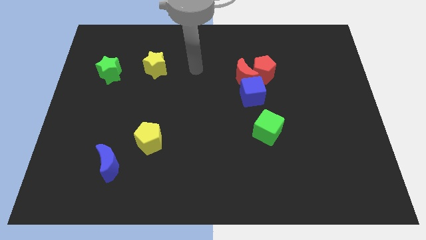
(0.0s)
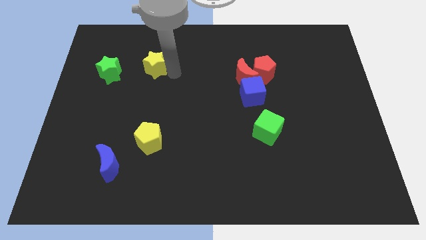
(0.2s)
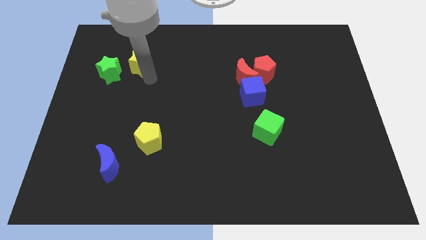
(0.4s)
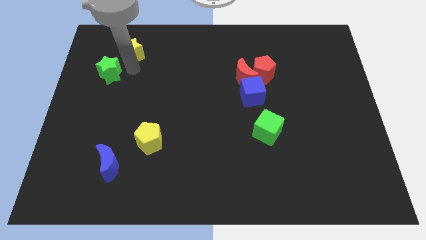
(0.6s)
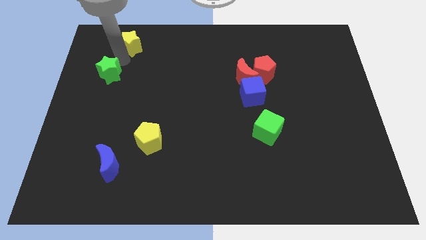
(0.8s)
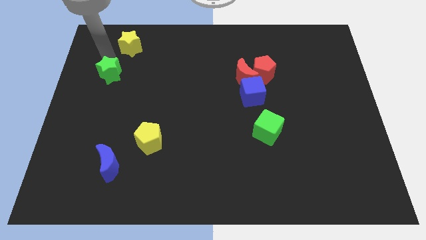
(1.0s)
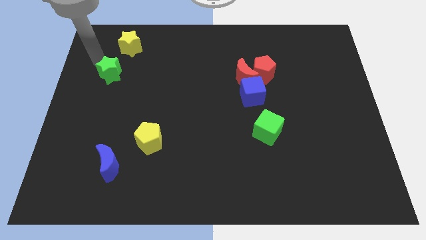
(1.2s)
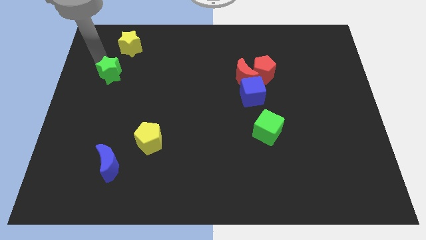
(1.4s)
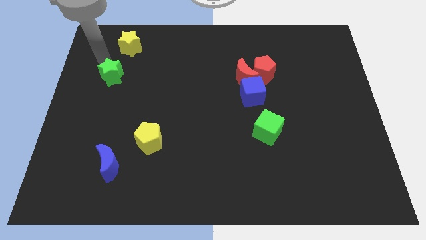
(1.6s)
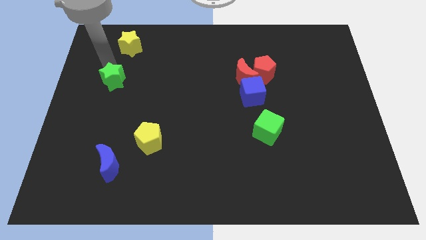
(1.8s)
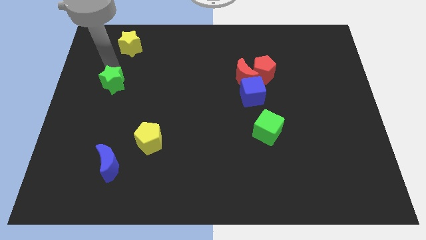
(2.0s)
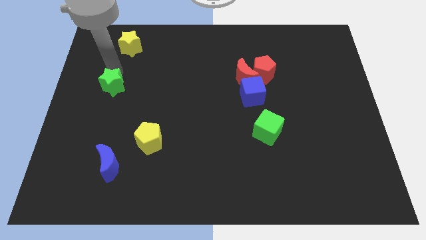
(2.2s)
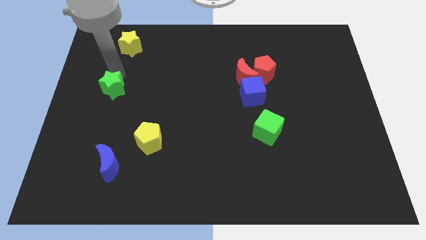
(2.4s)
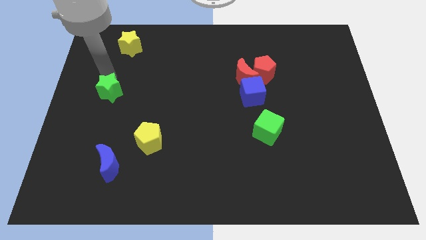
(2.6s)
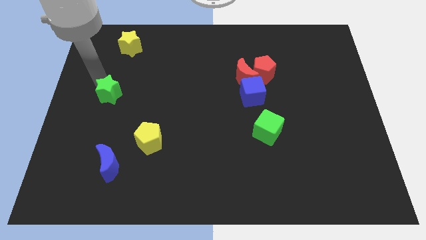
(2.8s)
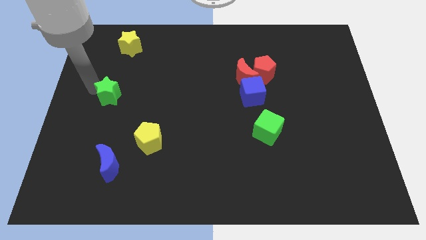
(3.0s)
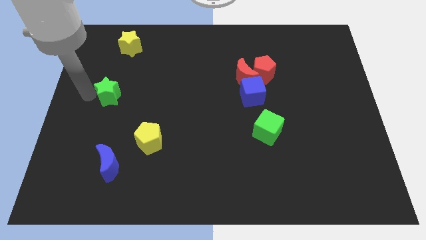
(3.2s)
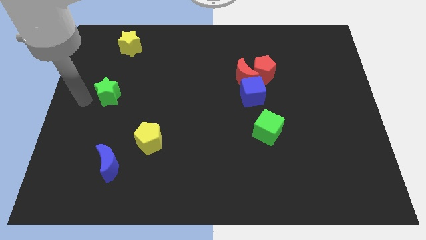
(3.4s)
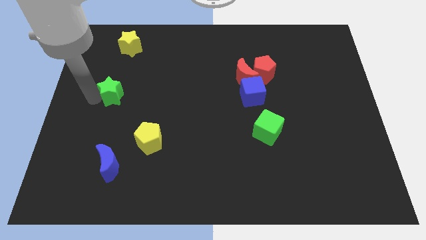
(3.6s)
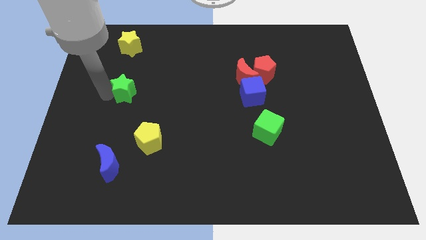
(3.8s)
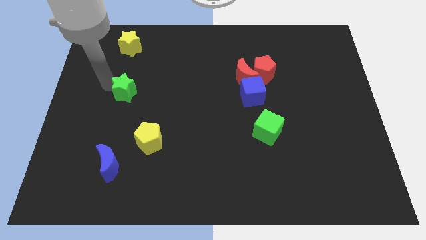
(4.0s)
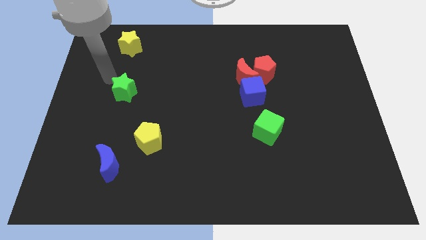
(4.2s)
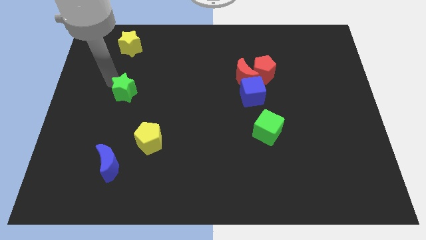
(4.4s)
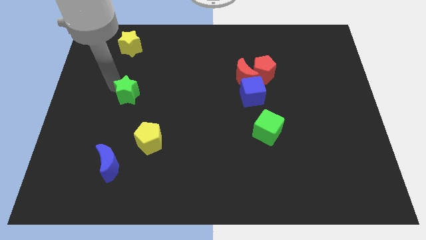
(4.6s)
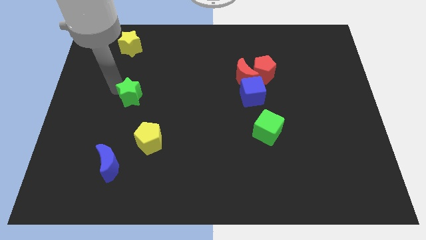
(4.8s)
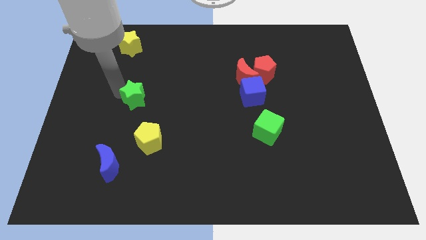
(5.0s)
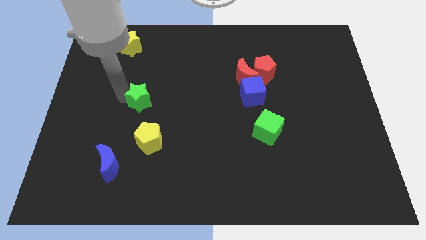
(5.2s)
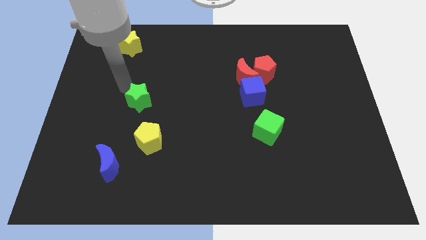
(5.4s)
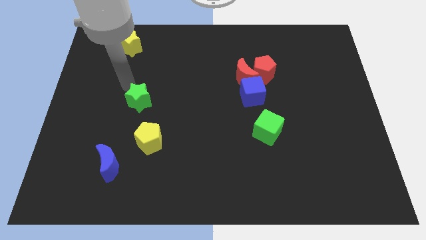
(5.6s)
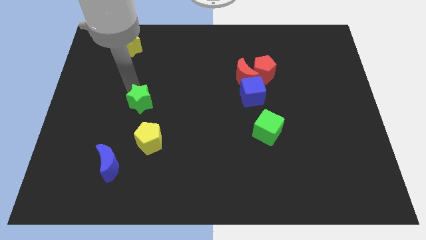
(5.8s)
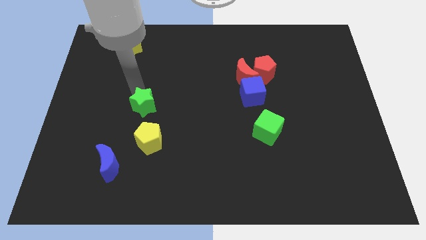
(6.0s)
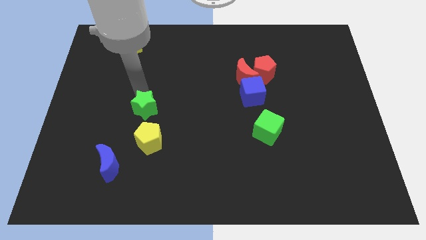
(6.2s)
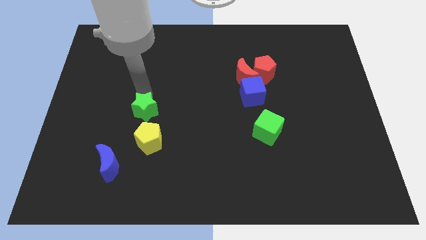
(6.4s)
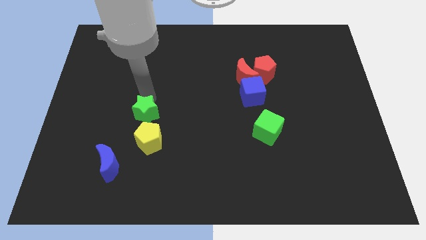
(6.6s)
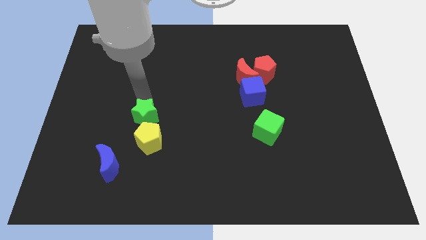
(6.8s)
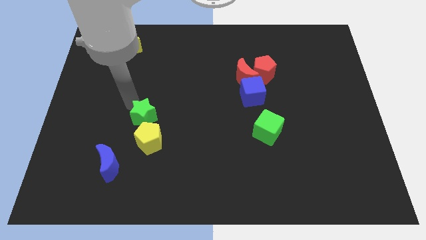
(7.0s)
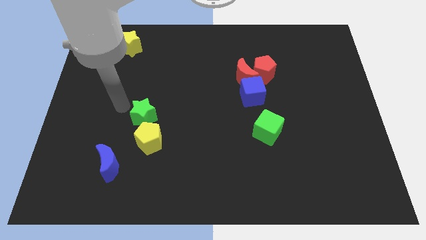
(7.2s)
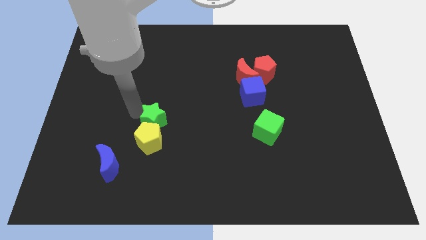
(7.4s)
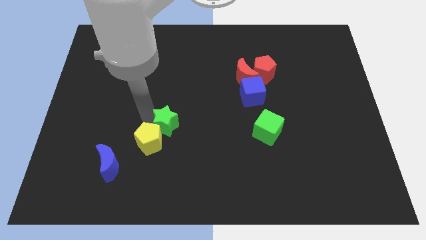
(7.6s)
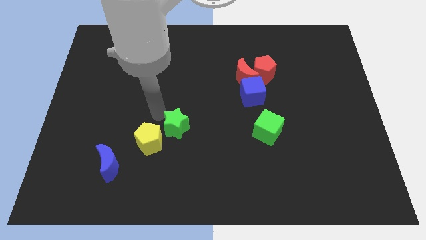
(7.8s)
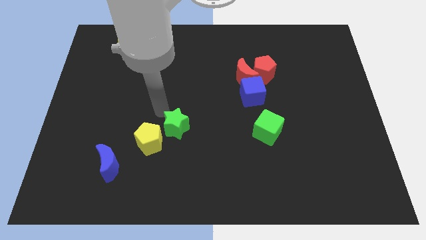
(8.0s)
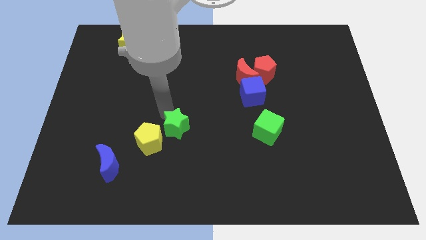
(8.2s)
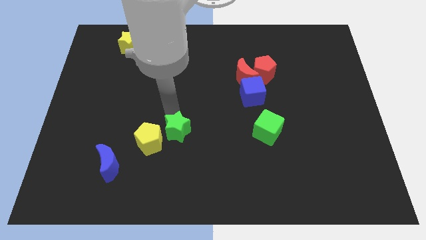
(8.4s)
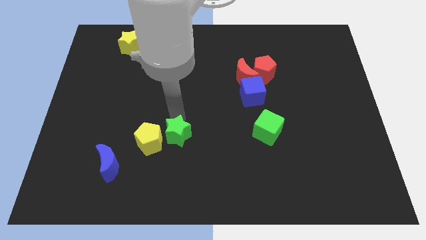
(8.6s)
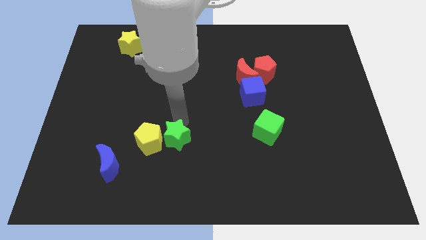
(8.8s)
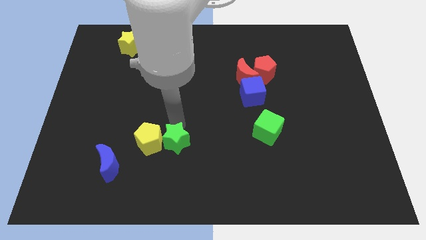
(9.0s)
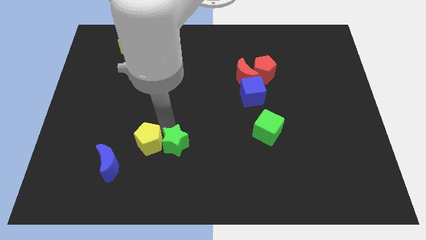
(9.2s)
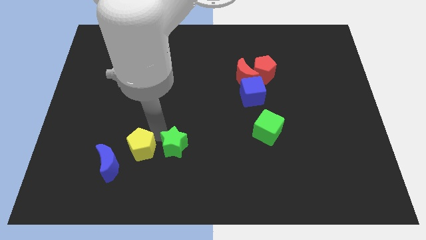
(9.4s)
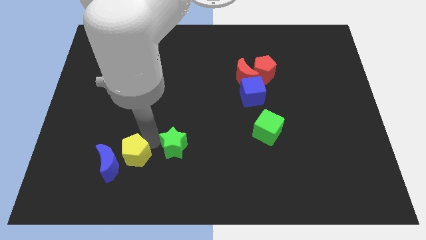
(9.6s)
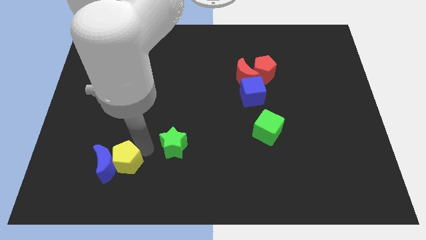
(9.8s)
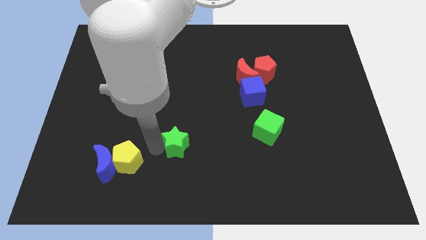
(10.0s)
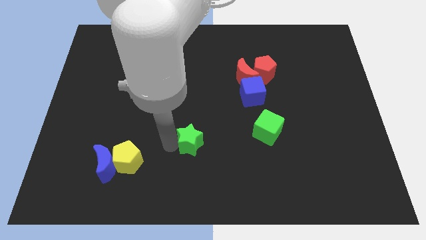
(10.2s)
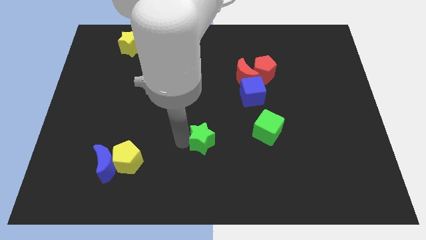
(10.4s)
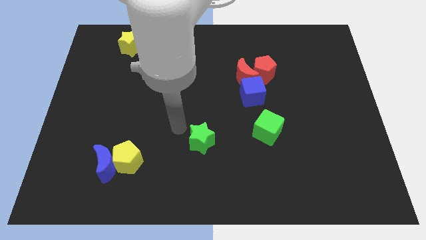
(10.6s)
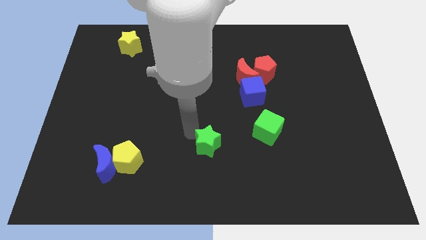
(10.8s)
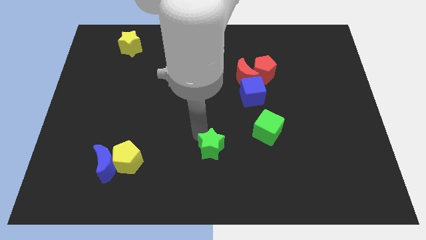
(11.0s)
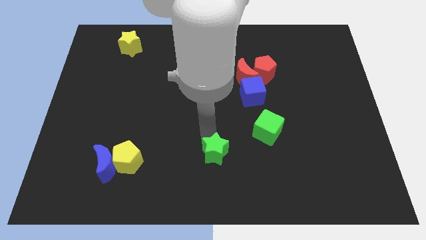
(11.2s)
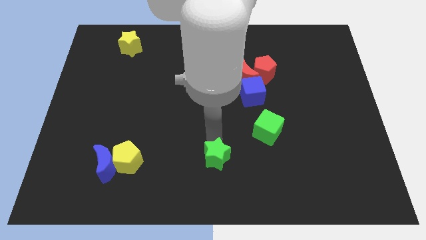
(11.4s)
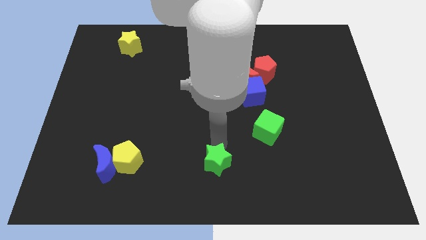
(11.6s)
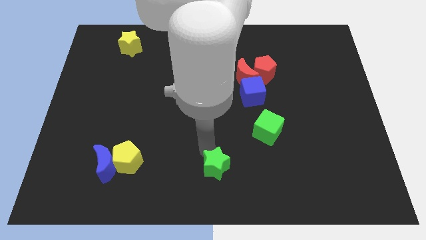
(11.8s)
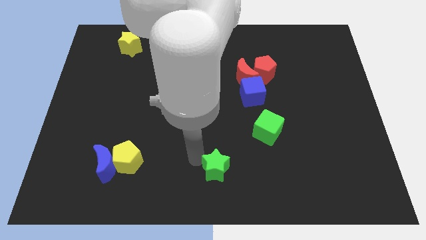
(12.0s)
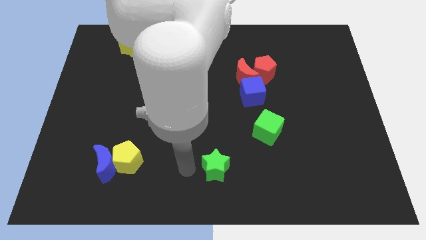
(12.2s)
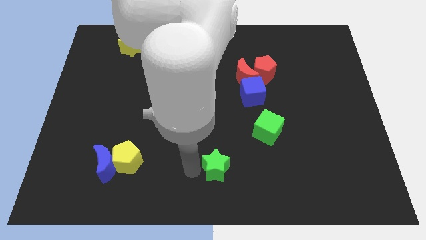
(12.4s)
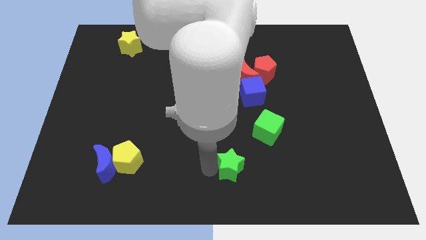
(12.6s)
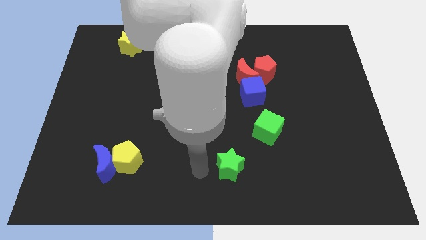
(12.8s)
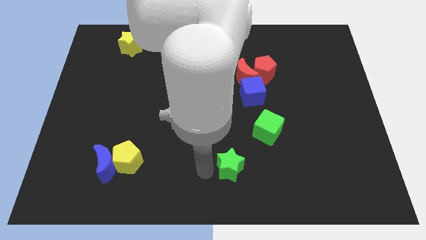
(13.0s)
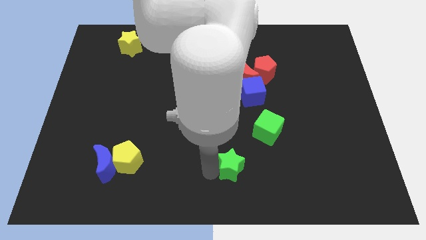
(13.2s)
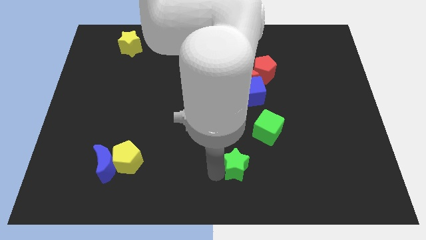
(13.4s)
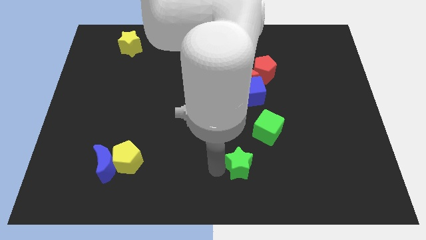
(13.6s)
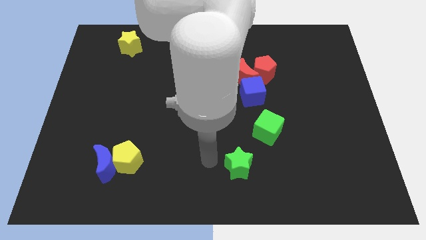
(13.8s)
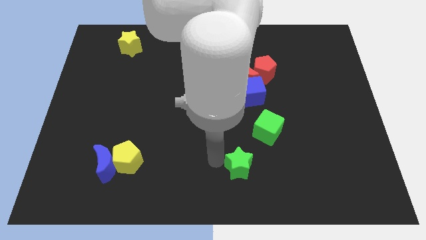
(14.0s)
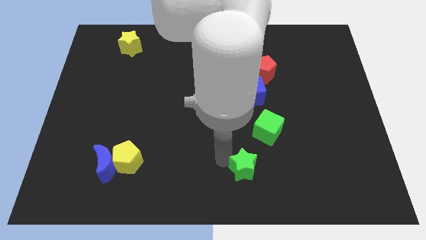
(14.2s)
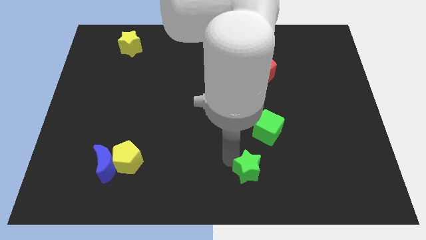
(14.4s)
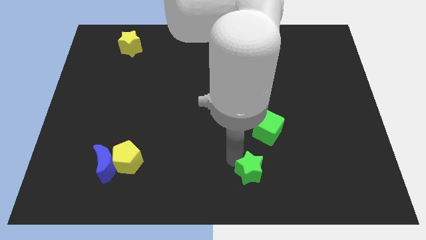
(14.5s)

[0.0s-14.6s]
move the green star to the bottom side of the green cube

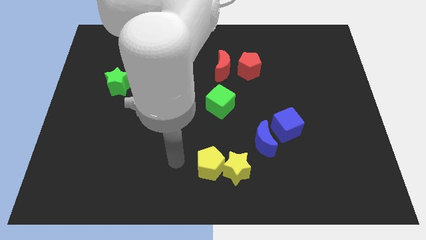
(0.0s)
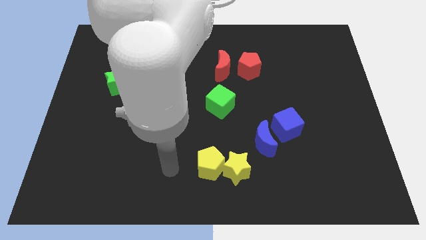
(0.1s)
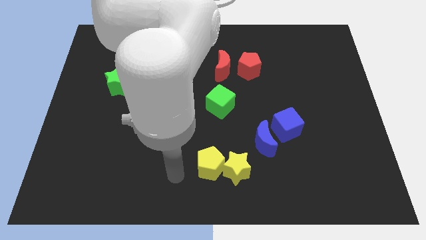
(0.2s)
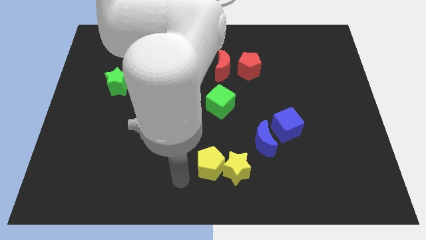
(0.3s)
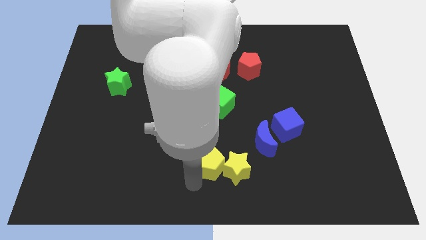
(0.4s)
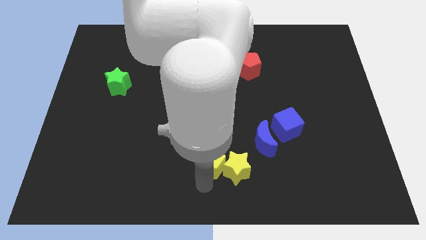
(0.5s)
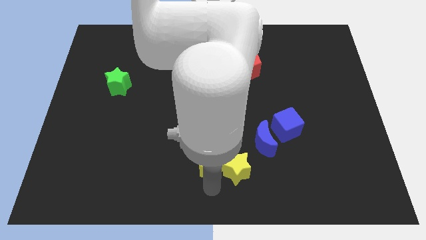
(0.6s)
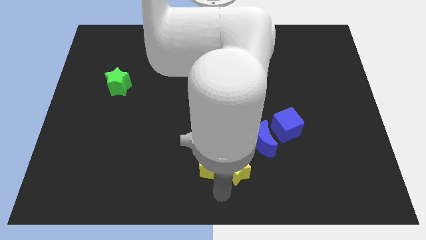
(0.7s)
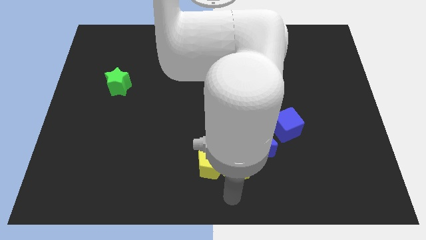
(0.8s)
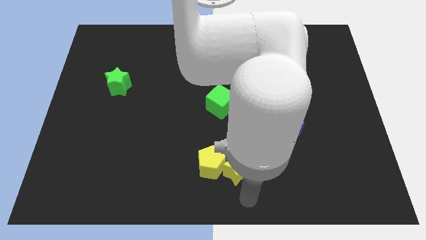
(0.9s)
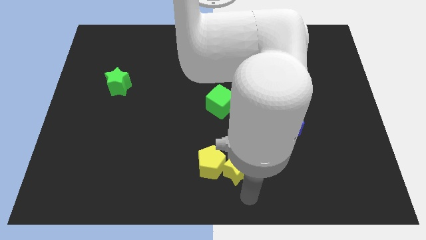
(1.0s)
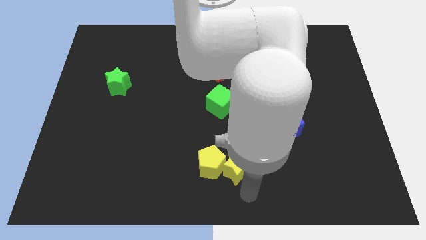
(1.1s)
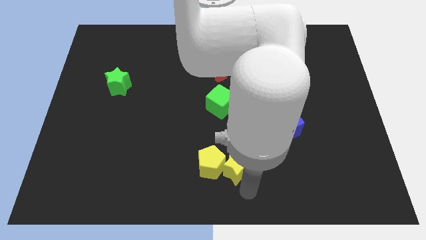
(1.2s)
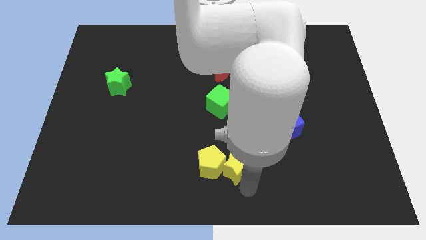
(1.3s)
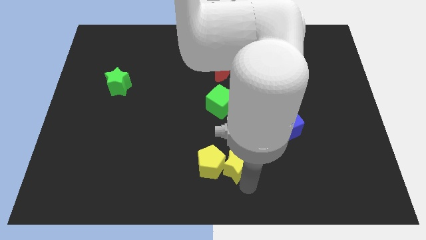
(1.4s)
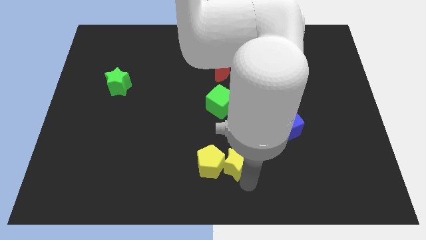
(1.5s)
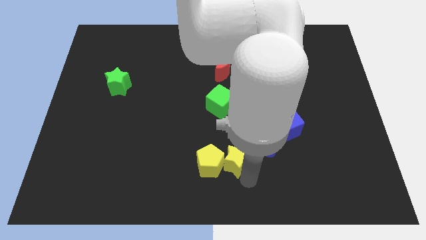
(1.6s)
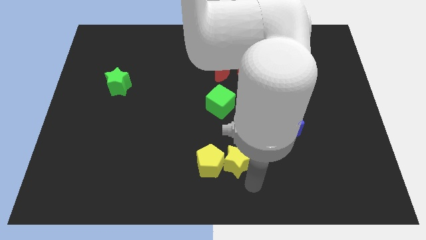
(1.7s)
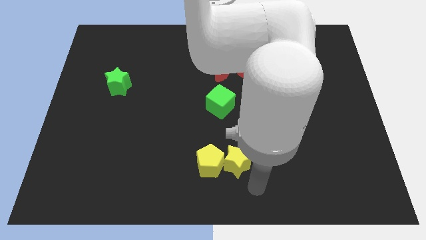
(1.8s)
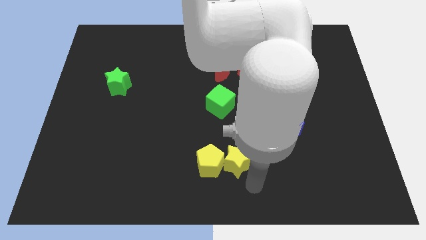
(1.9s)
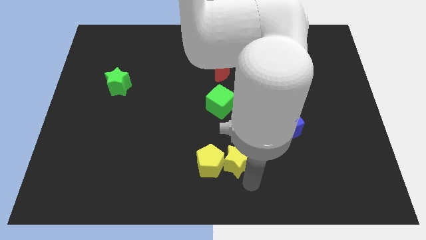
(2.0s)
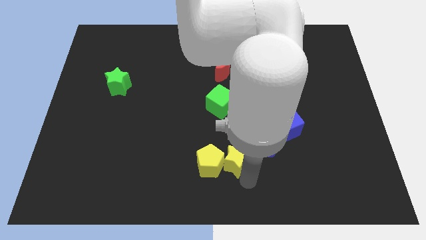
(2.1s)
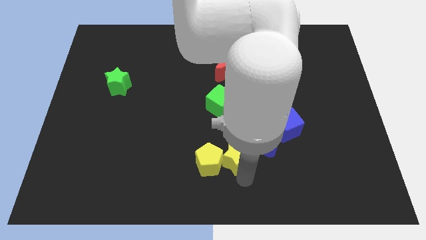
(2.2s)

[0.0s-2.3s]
push the yellow star below the green cube
